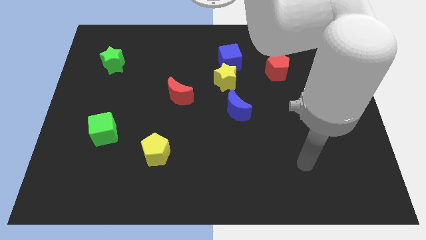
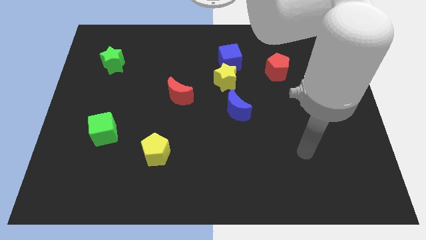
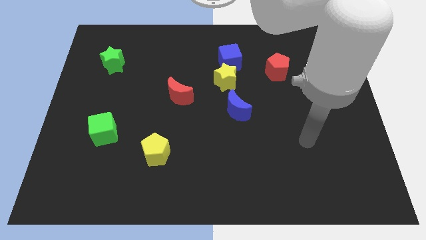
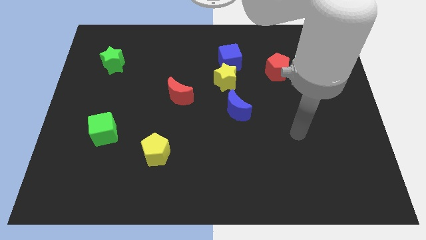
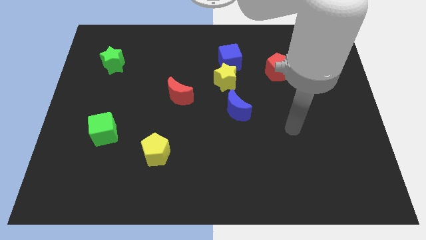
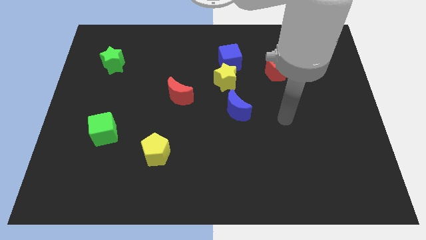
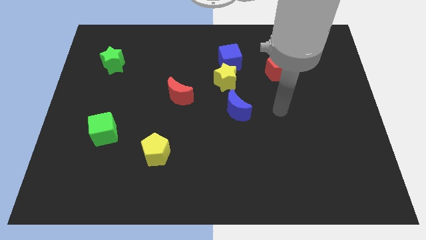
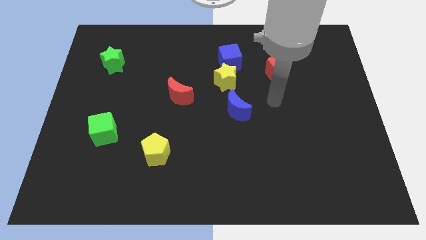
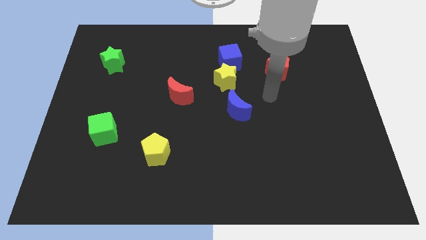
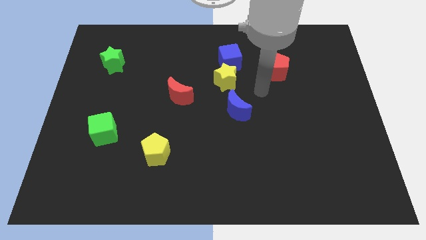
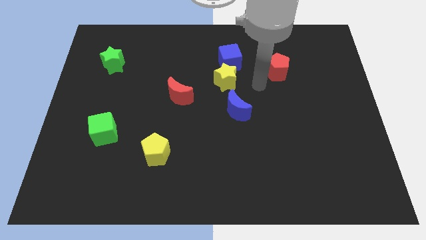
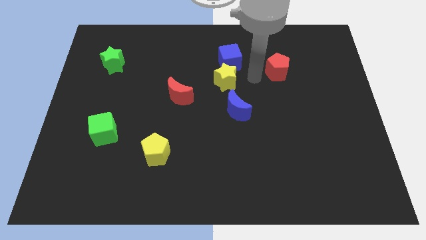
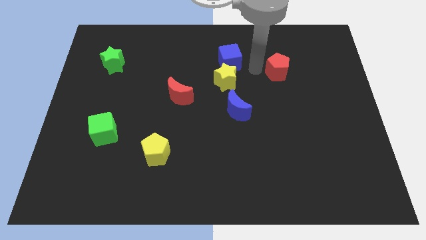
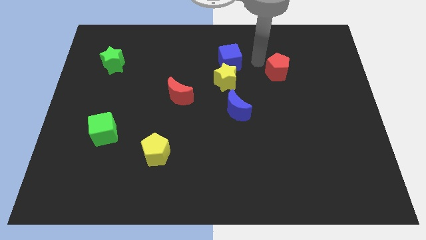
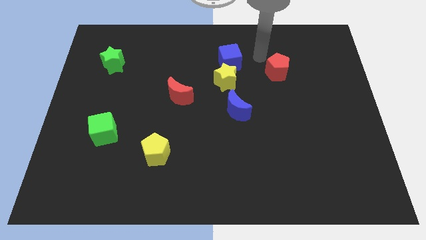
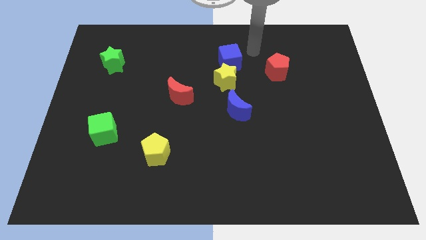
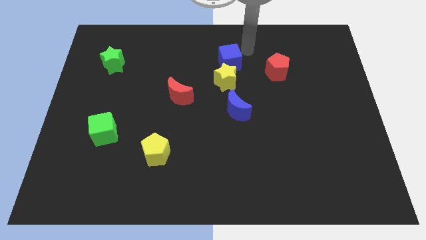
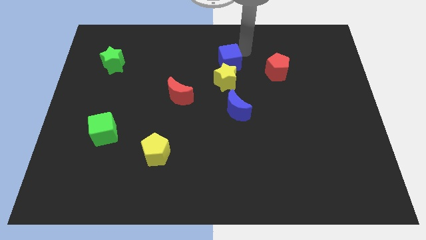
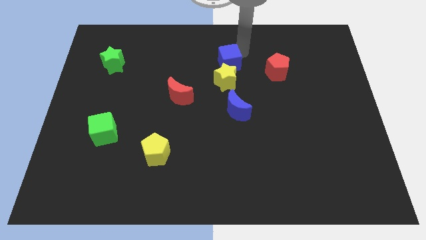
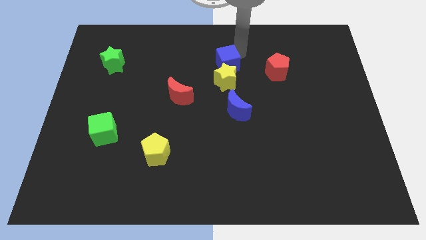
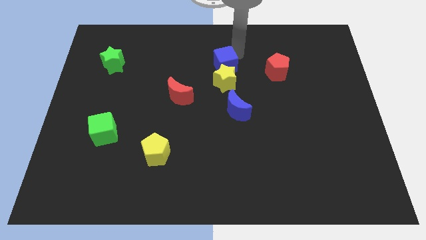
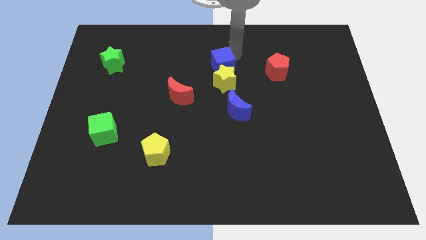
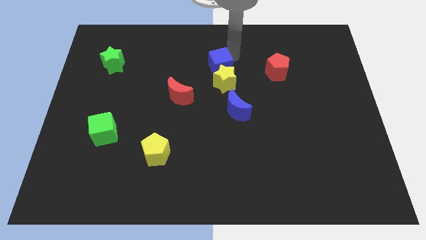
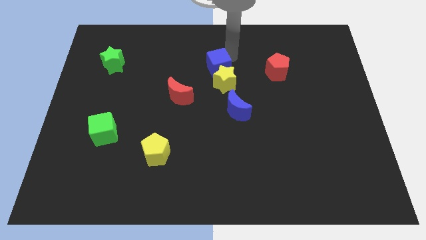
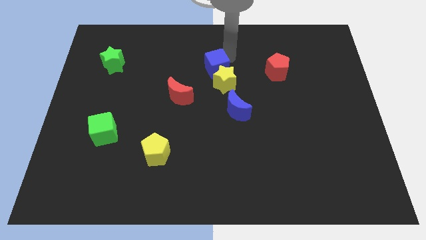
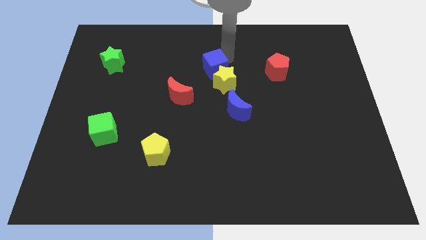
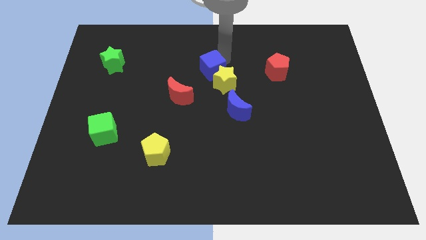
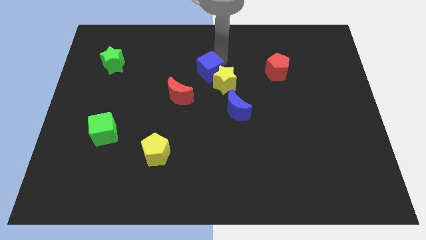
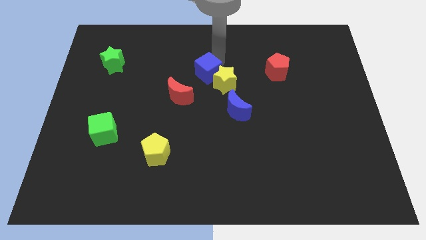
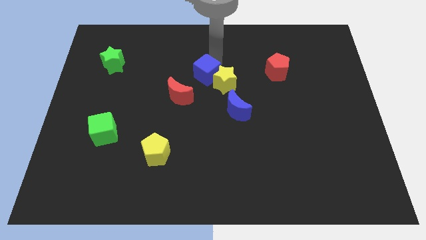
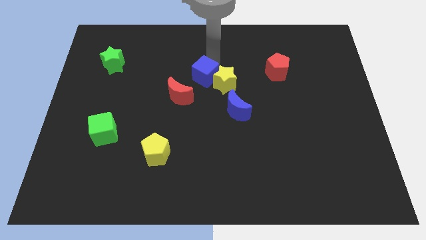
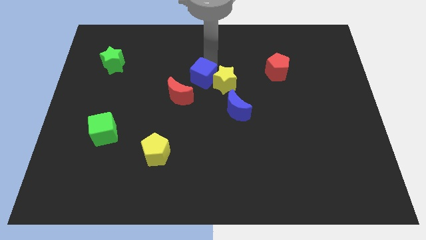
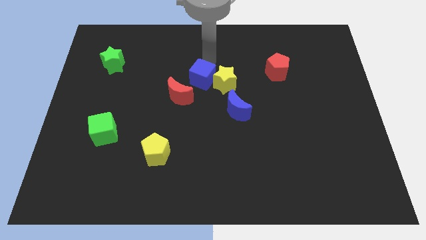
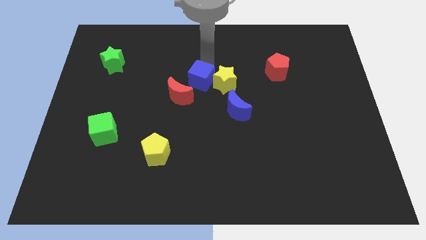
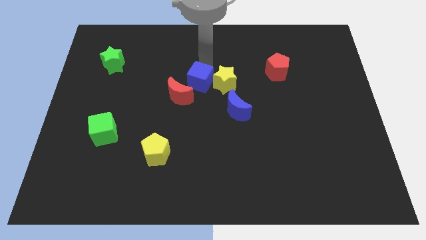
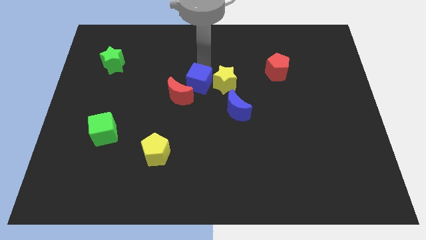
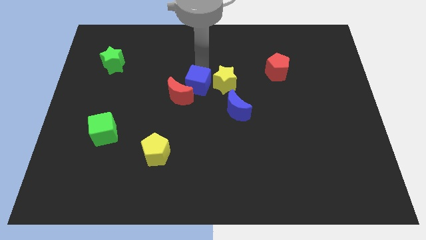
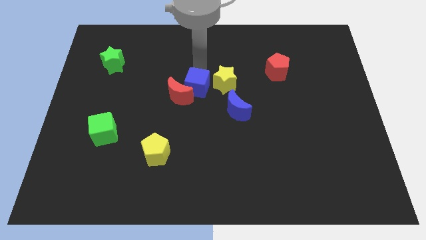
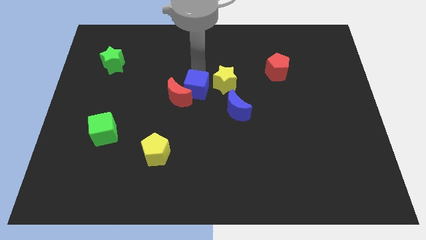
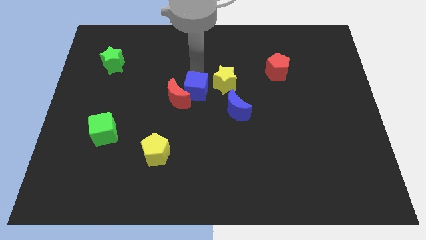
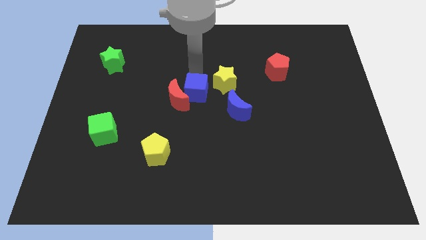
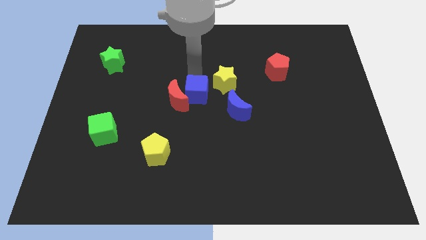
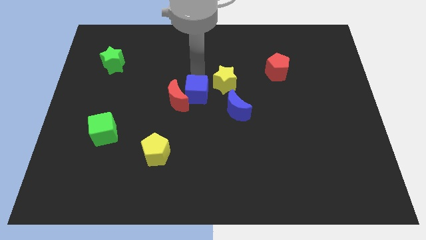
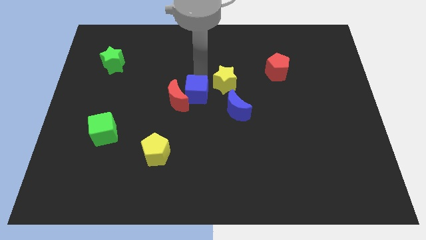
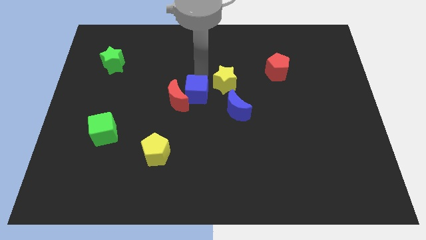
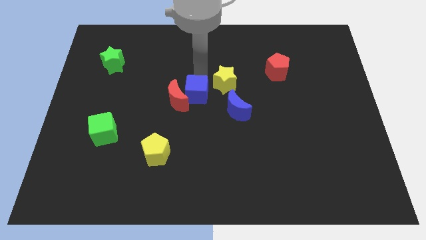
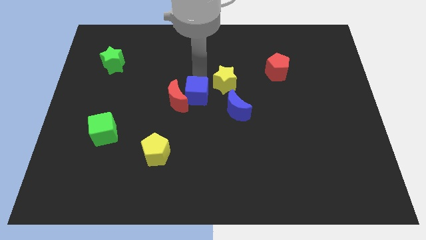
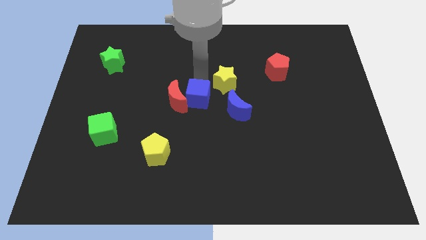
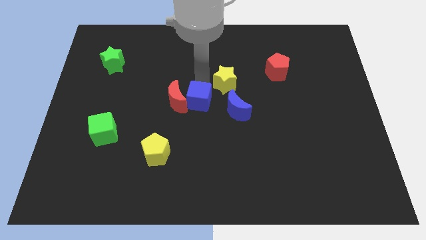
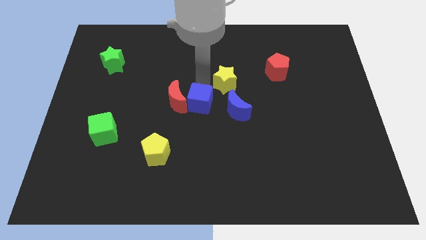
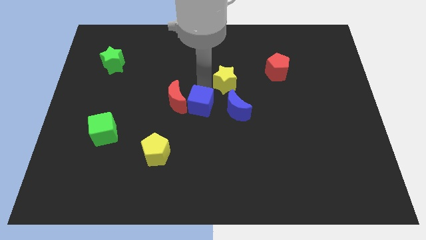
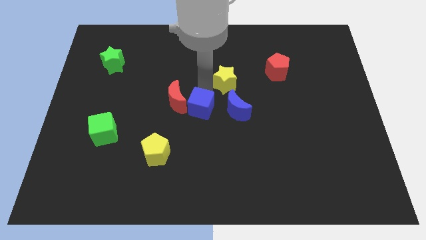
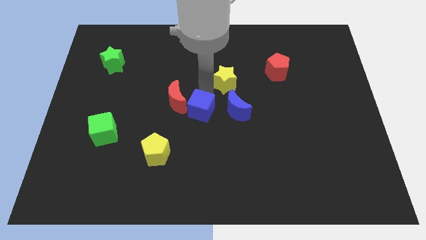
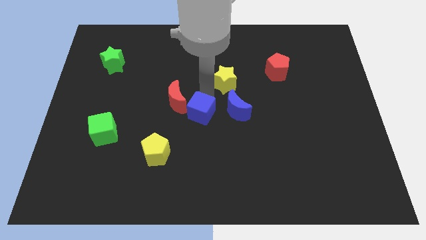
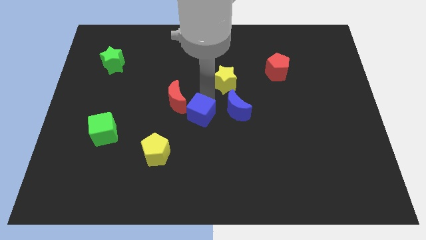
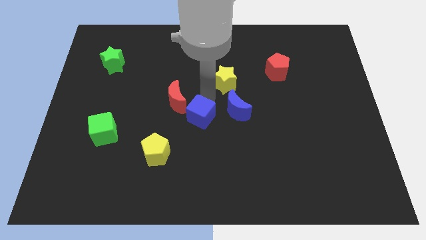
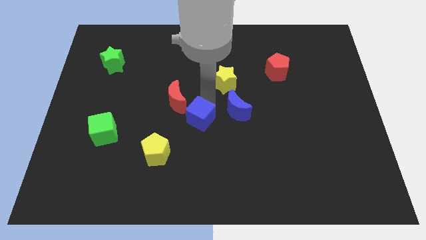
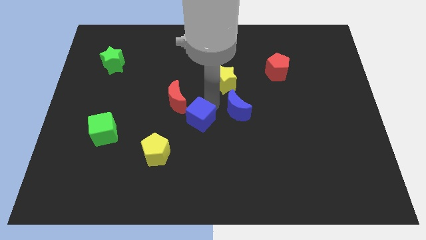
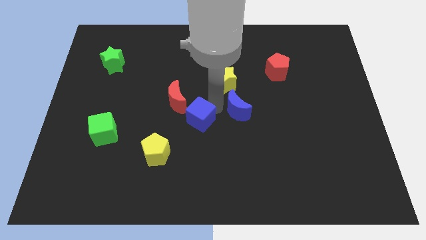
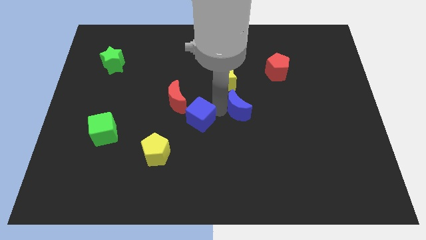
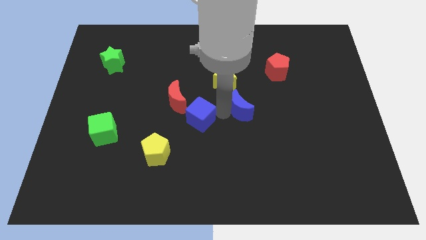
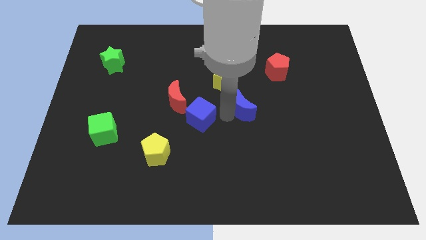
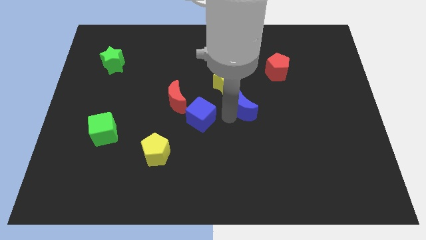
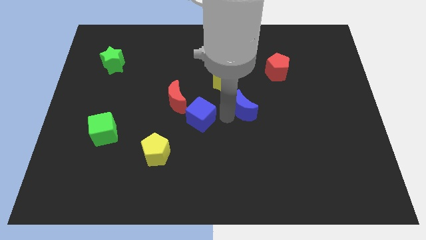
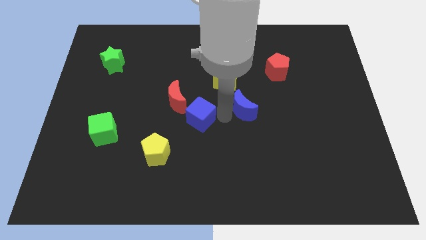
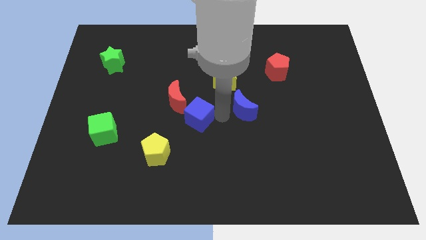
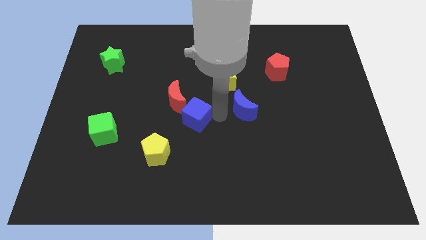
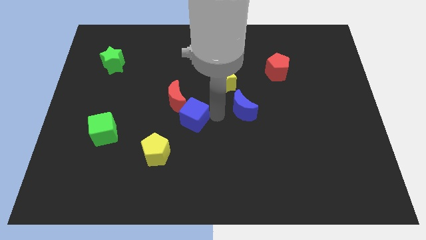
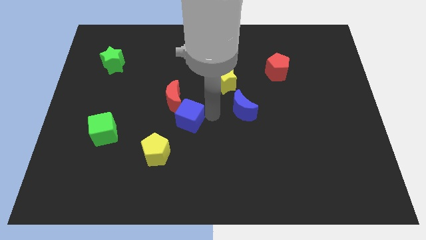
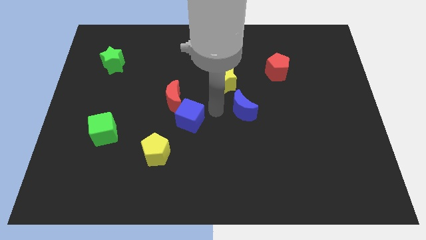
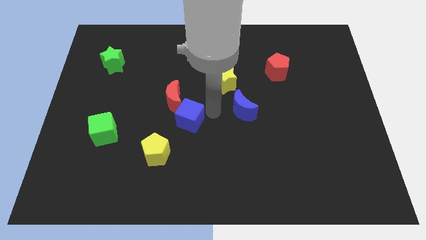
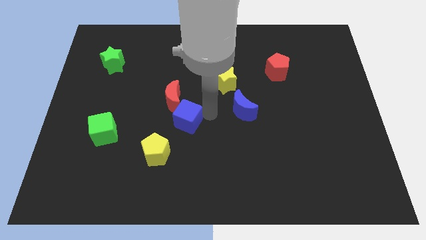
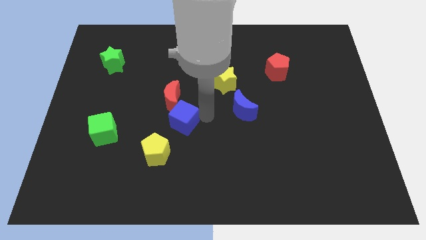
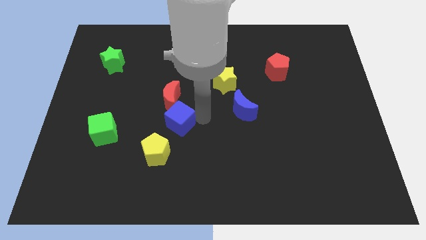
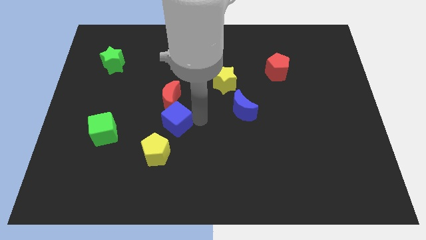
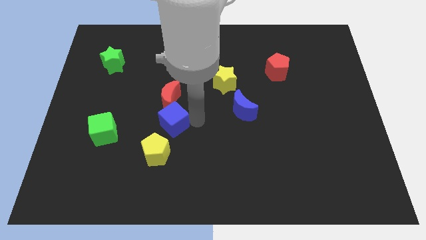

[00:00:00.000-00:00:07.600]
push the blue cube just right of the green cube
